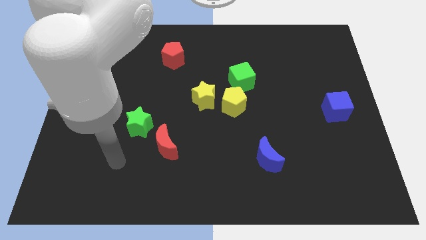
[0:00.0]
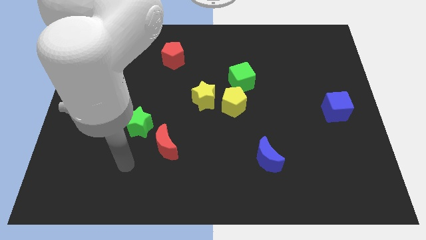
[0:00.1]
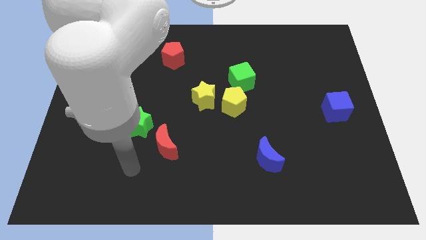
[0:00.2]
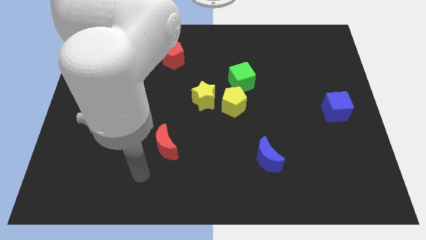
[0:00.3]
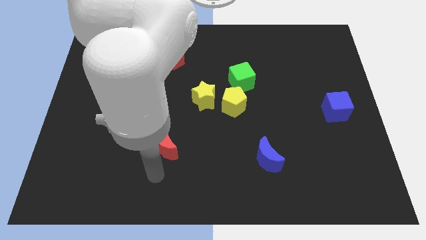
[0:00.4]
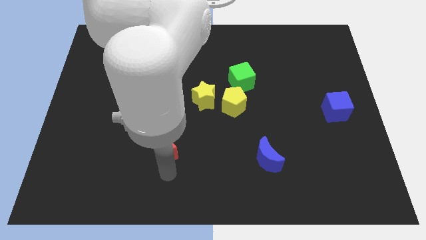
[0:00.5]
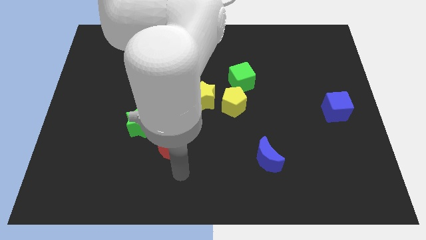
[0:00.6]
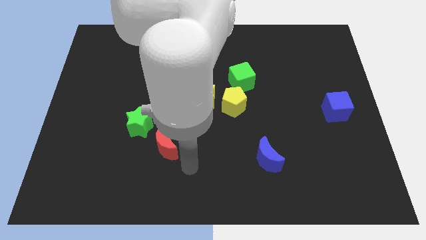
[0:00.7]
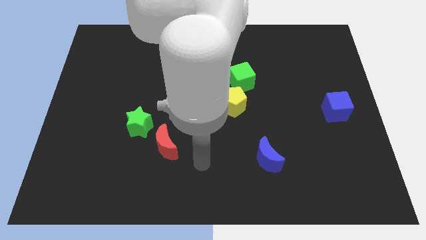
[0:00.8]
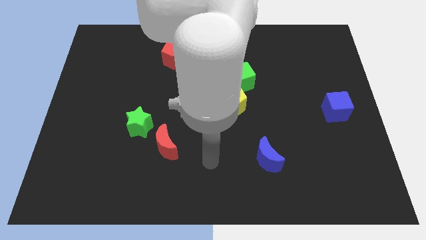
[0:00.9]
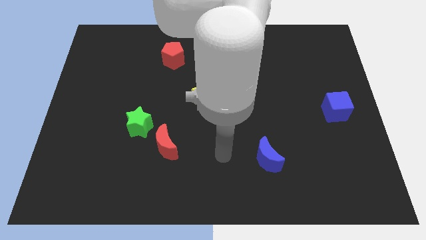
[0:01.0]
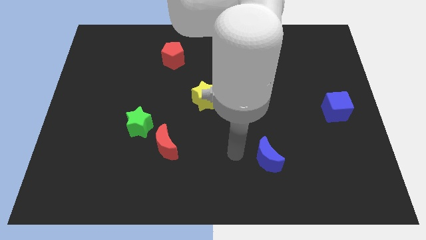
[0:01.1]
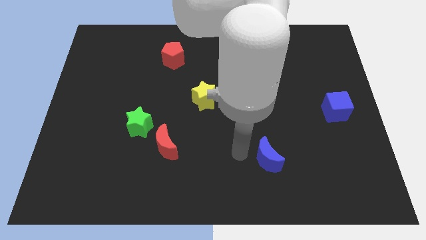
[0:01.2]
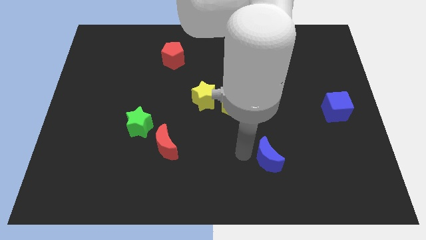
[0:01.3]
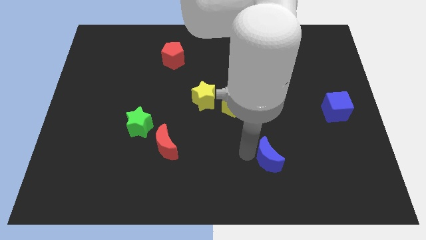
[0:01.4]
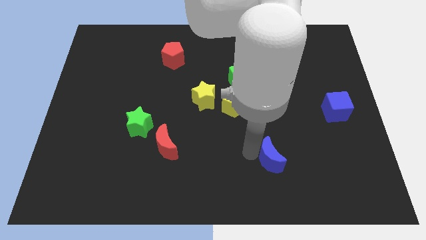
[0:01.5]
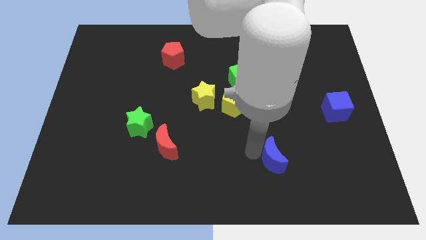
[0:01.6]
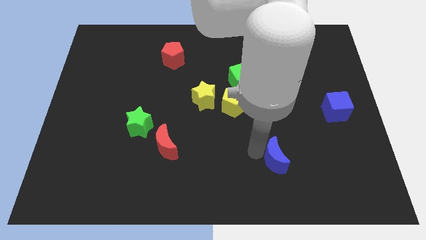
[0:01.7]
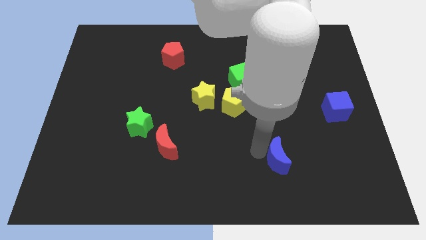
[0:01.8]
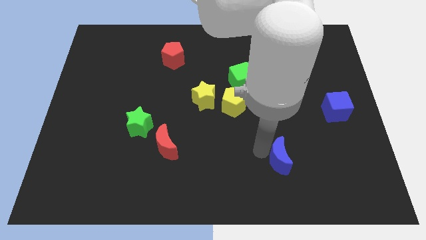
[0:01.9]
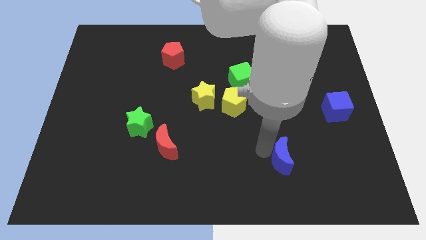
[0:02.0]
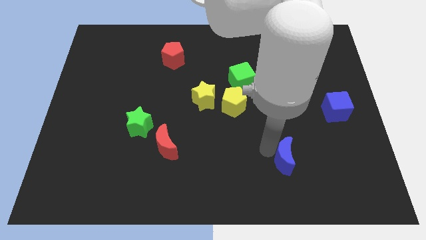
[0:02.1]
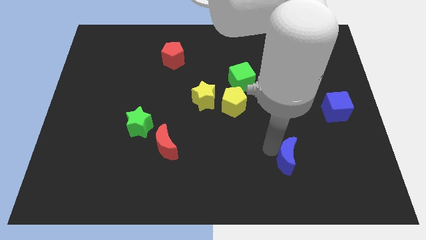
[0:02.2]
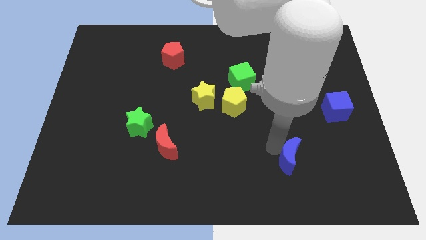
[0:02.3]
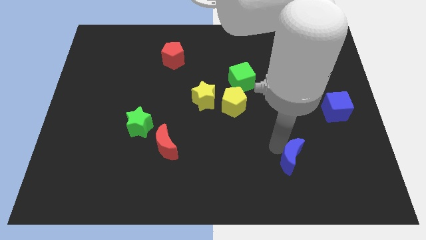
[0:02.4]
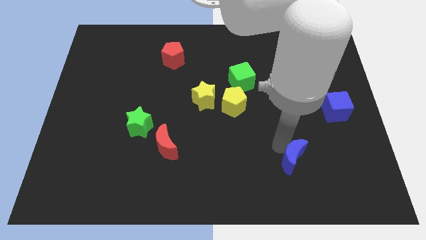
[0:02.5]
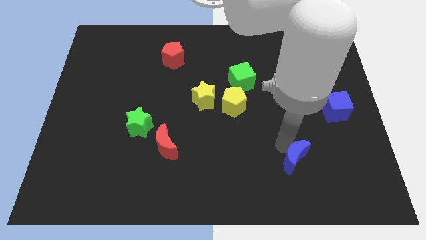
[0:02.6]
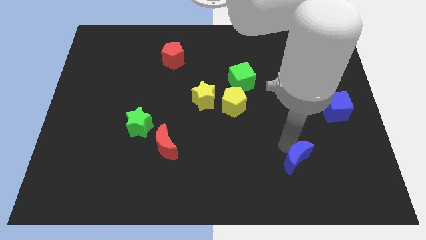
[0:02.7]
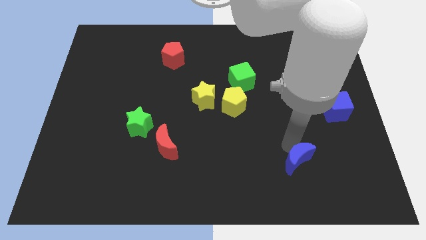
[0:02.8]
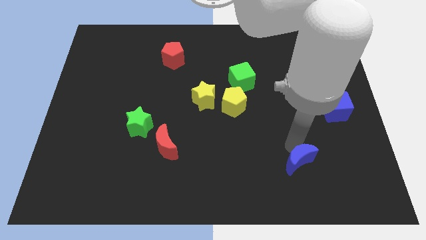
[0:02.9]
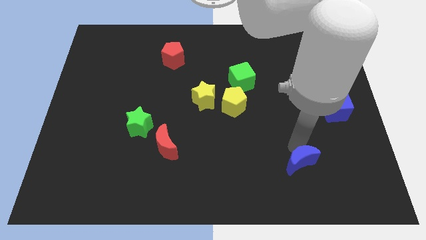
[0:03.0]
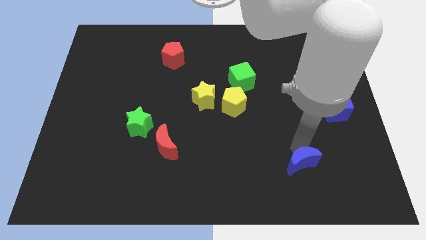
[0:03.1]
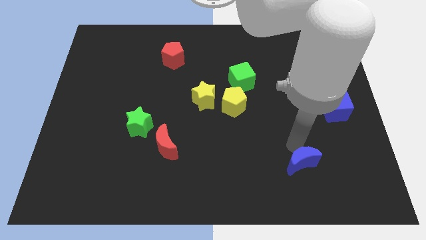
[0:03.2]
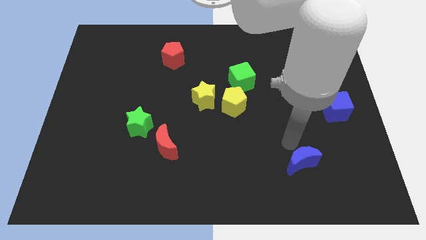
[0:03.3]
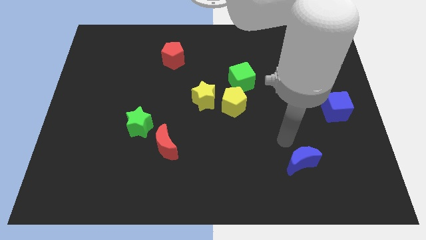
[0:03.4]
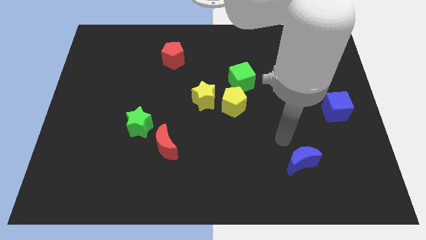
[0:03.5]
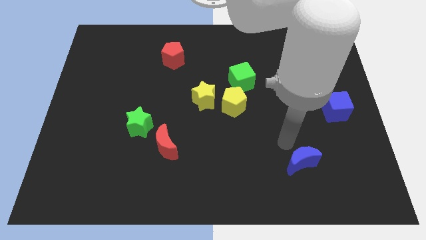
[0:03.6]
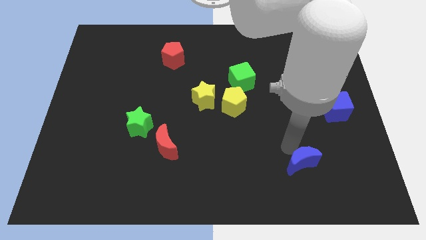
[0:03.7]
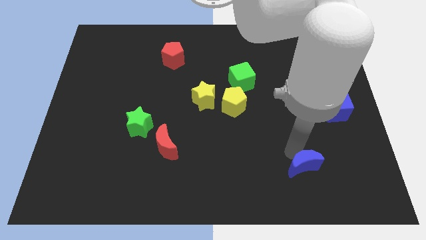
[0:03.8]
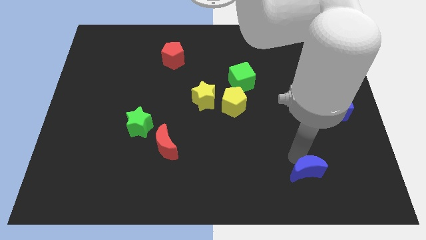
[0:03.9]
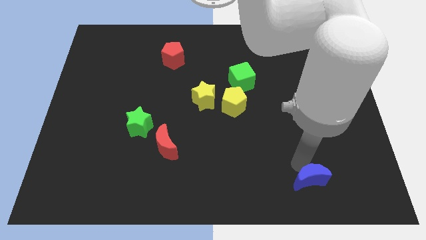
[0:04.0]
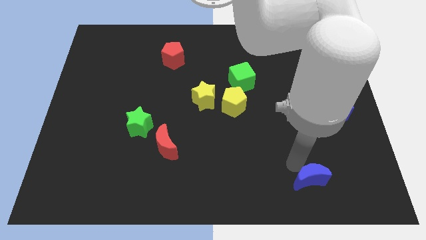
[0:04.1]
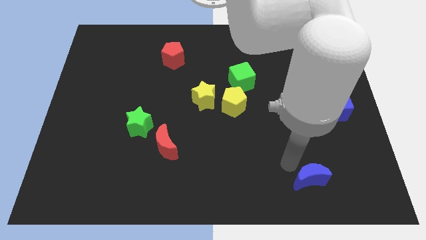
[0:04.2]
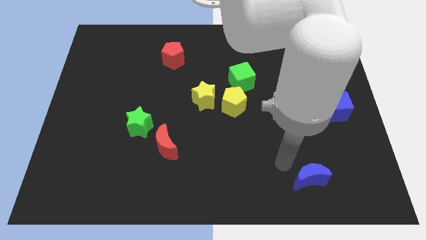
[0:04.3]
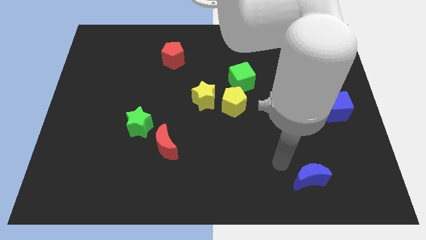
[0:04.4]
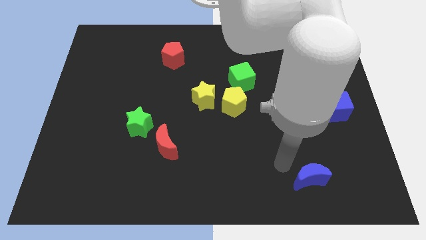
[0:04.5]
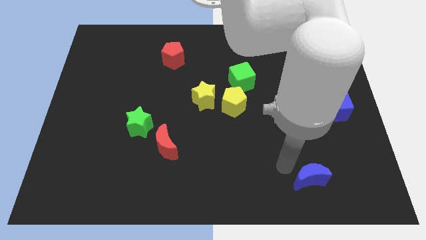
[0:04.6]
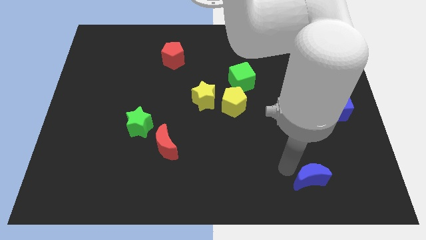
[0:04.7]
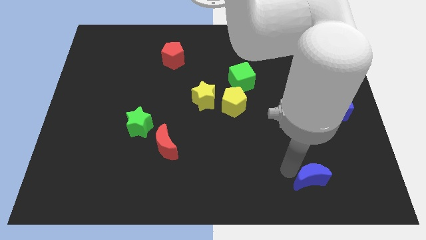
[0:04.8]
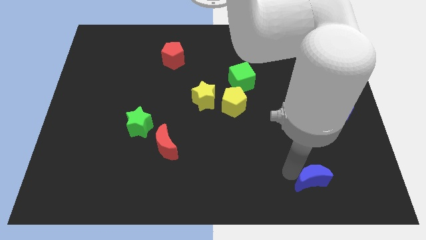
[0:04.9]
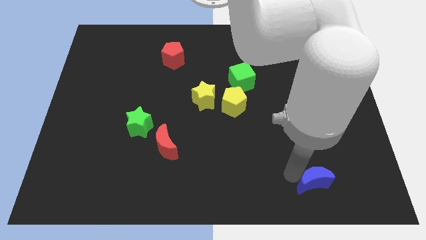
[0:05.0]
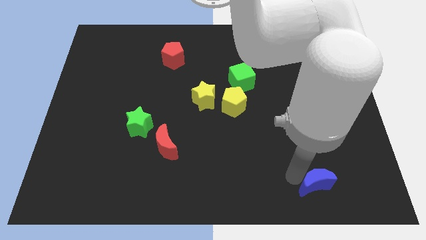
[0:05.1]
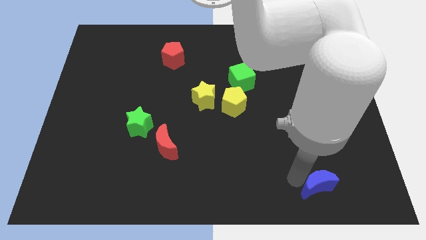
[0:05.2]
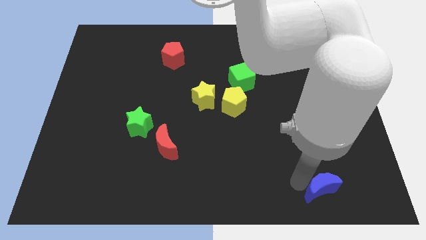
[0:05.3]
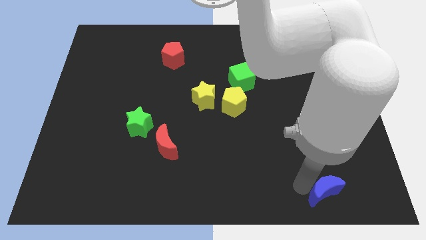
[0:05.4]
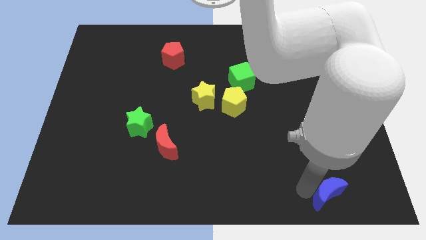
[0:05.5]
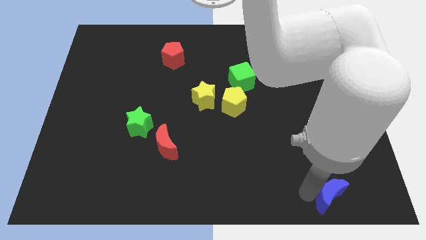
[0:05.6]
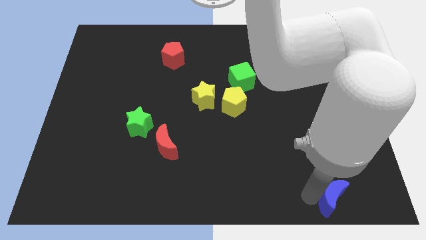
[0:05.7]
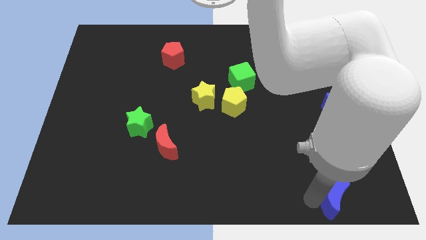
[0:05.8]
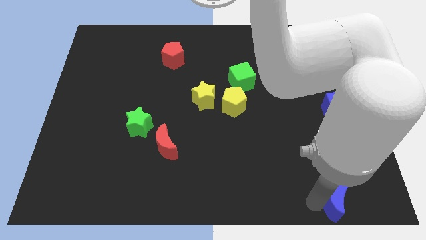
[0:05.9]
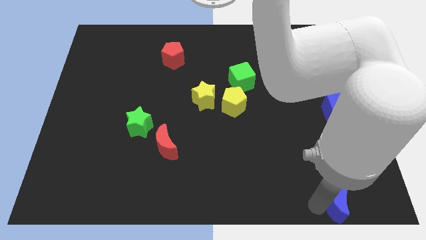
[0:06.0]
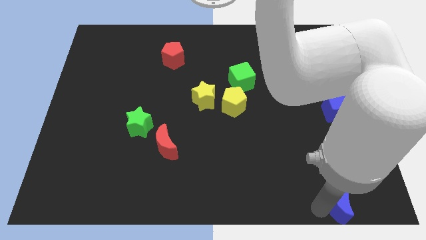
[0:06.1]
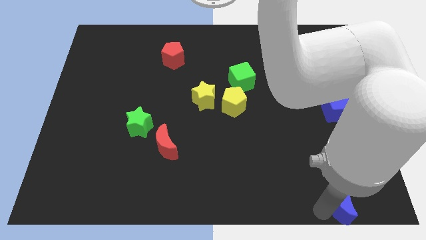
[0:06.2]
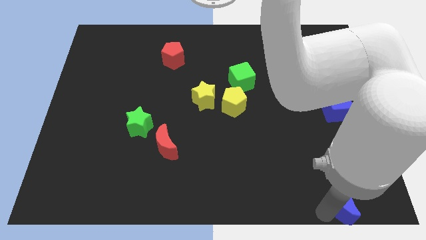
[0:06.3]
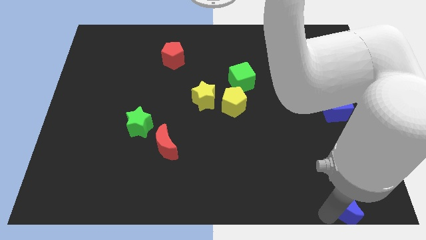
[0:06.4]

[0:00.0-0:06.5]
push the blue moon to the bottom right
